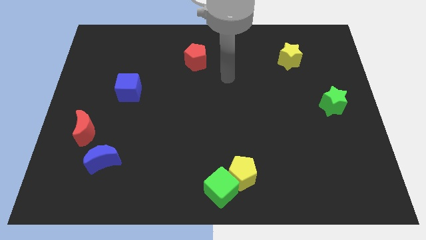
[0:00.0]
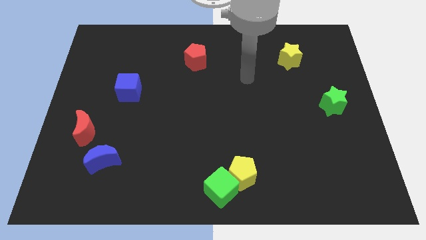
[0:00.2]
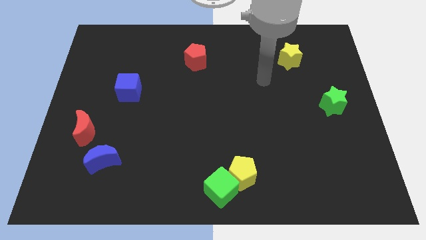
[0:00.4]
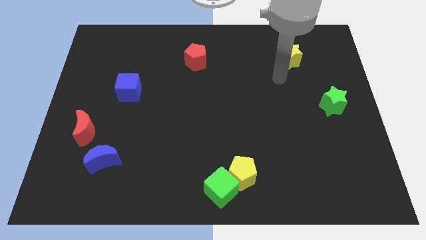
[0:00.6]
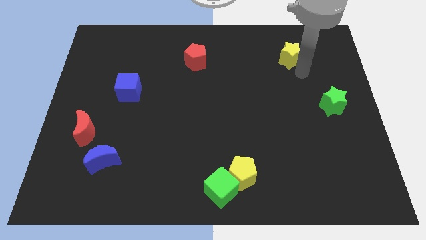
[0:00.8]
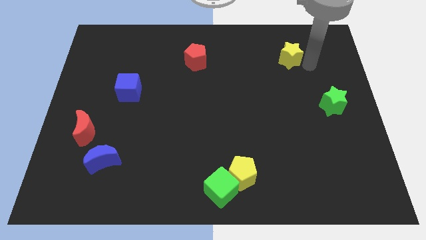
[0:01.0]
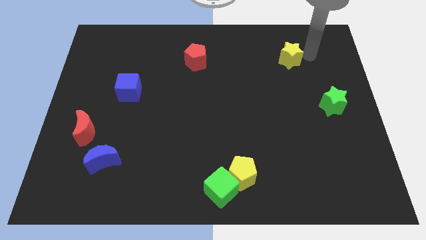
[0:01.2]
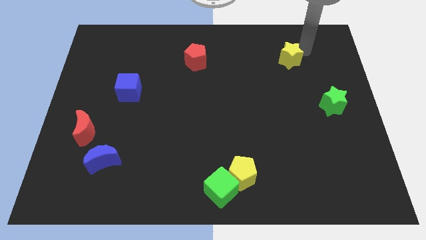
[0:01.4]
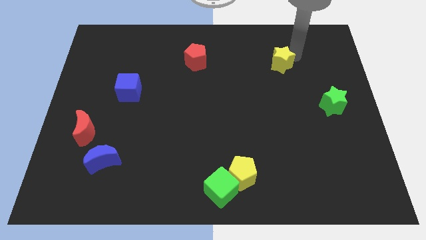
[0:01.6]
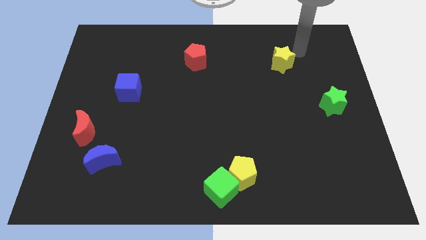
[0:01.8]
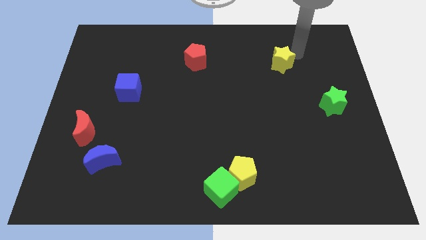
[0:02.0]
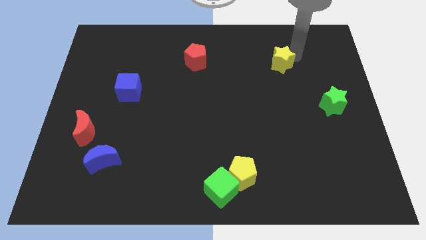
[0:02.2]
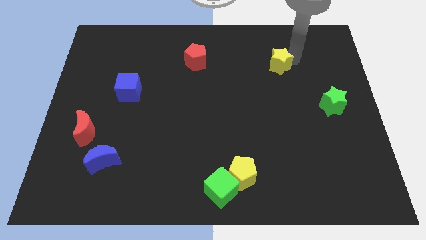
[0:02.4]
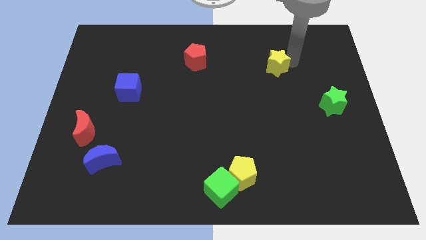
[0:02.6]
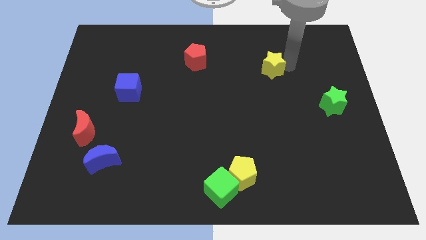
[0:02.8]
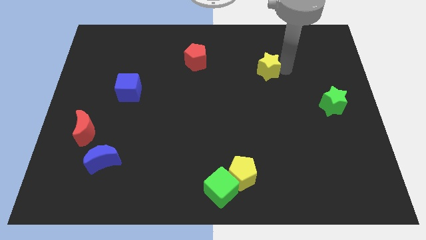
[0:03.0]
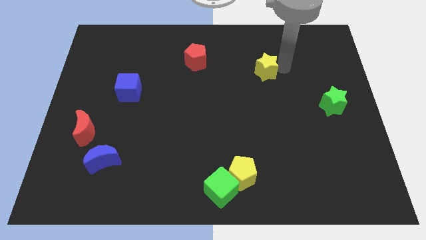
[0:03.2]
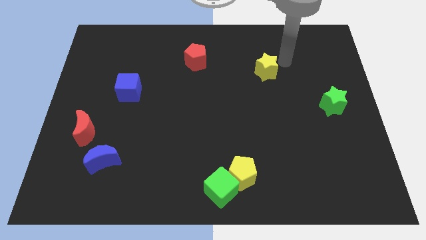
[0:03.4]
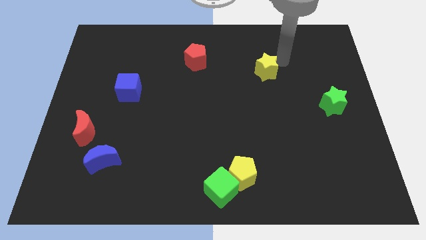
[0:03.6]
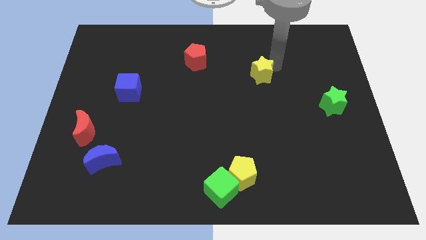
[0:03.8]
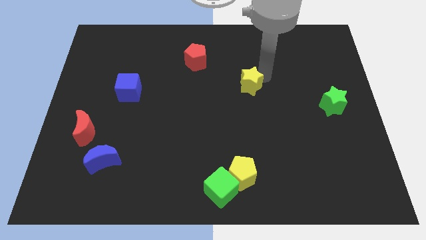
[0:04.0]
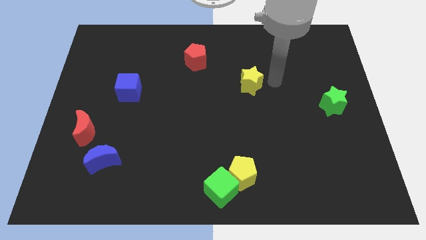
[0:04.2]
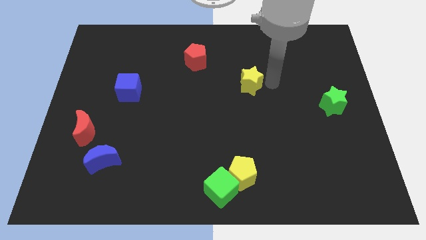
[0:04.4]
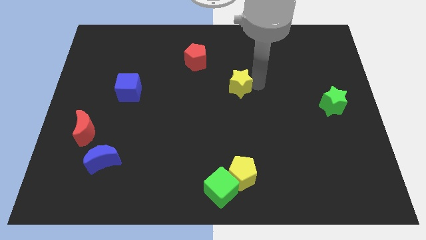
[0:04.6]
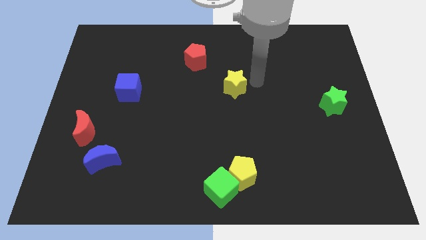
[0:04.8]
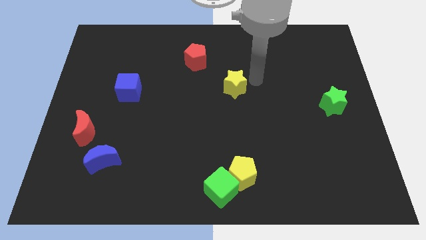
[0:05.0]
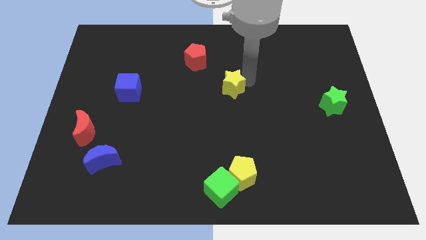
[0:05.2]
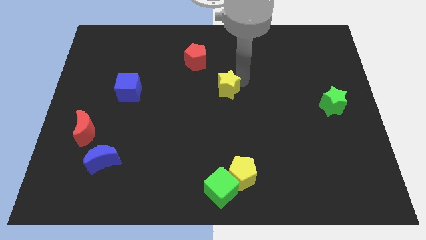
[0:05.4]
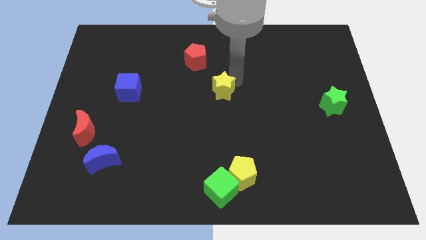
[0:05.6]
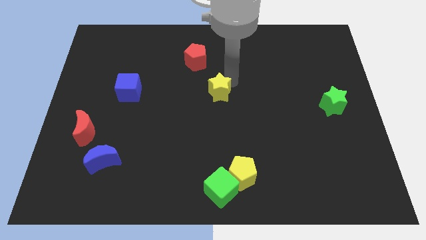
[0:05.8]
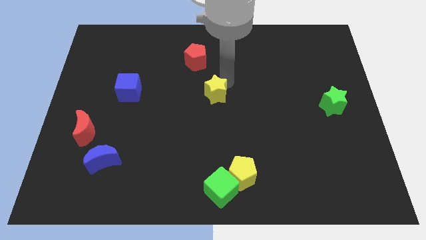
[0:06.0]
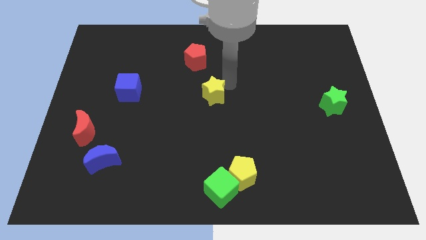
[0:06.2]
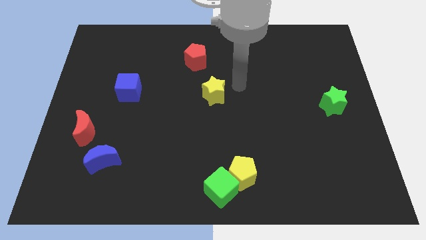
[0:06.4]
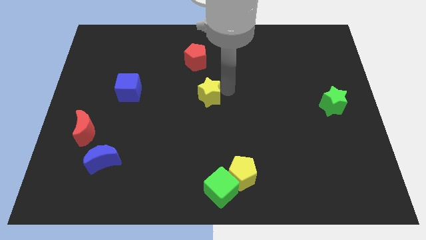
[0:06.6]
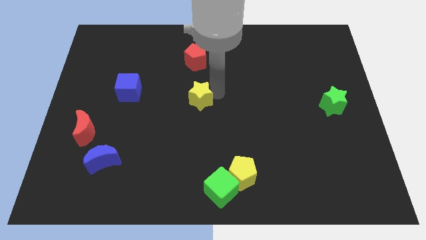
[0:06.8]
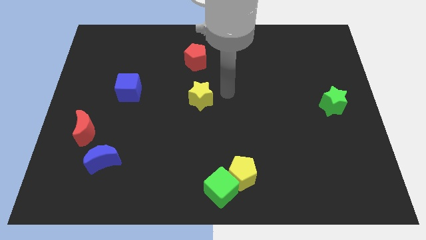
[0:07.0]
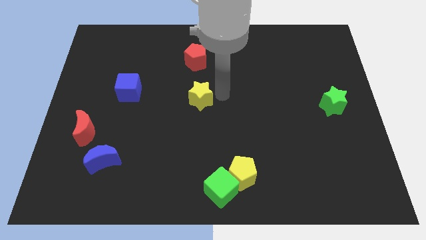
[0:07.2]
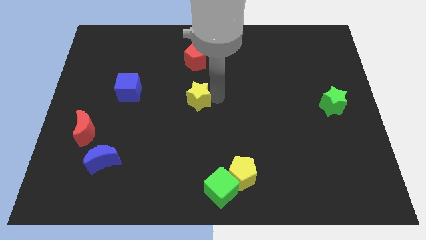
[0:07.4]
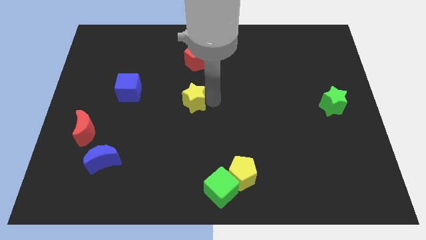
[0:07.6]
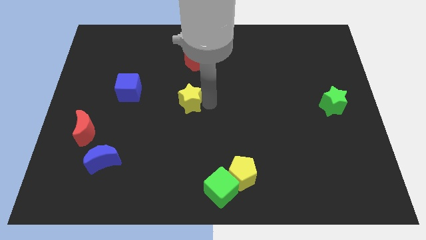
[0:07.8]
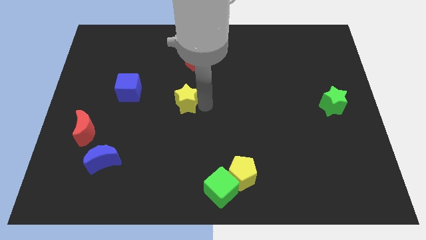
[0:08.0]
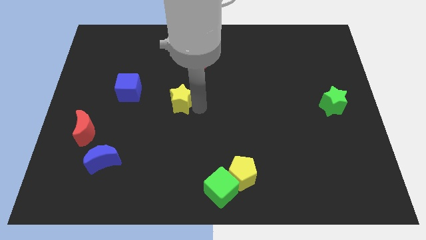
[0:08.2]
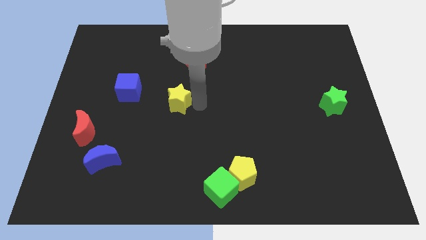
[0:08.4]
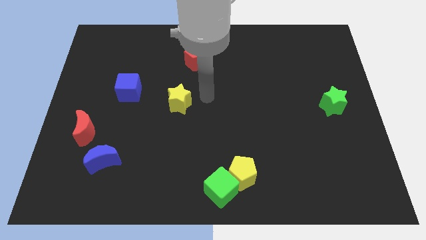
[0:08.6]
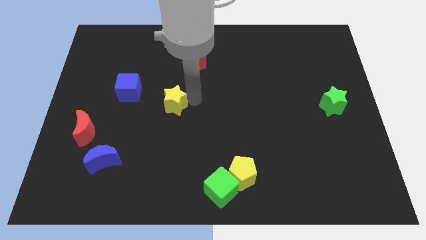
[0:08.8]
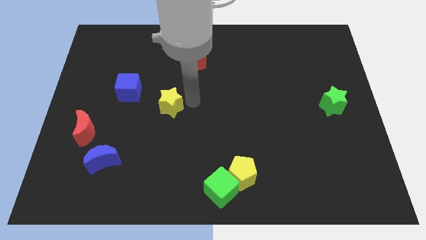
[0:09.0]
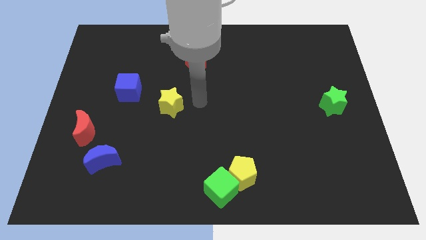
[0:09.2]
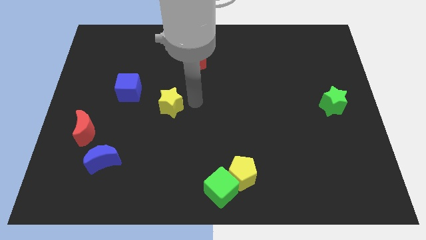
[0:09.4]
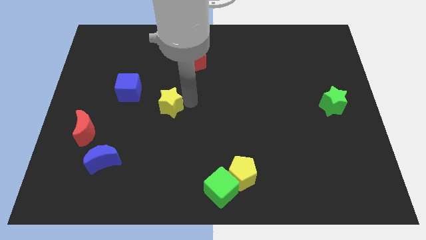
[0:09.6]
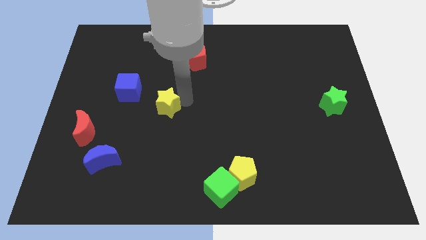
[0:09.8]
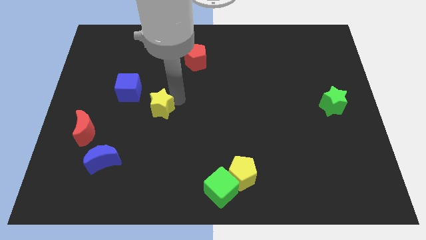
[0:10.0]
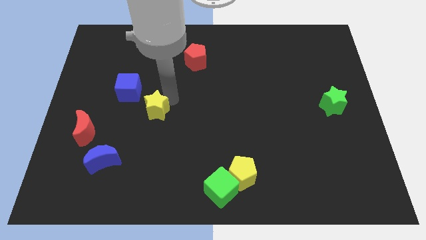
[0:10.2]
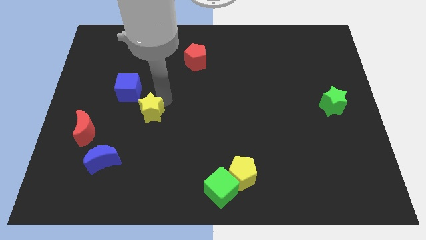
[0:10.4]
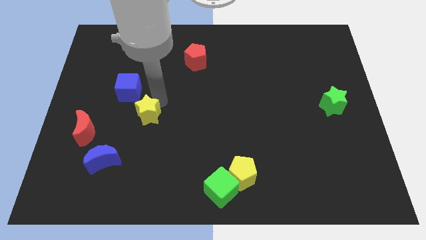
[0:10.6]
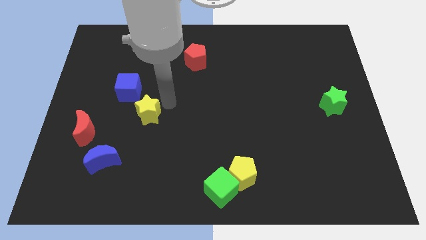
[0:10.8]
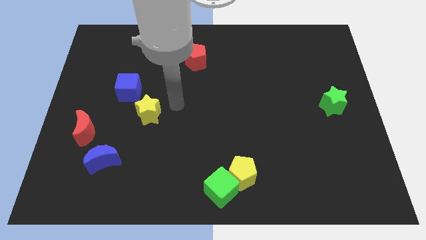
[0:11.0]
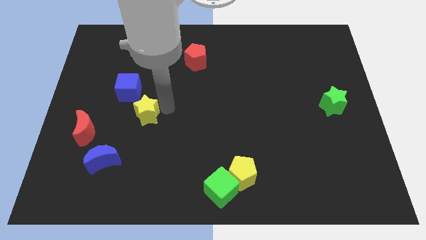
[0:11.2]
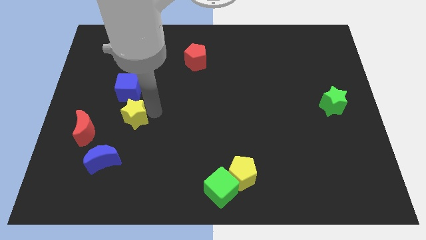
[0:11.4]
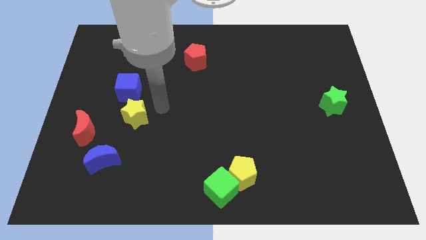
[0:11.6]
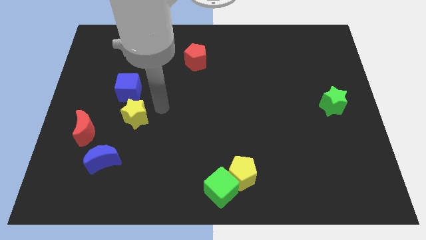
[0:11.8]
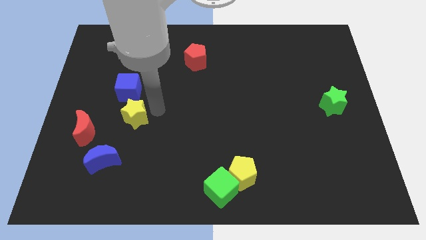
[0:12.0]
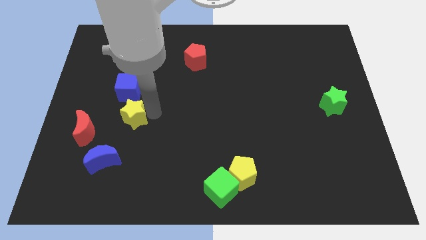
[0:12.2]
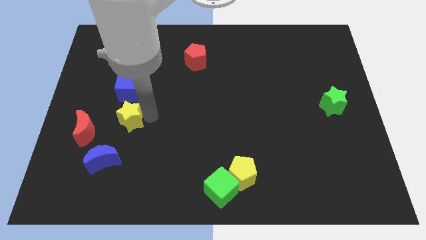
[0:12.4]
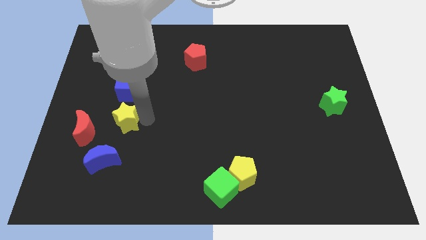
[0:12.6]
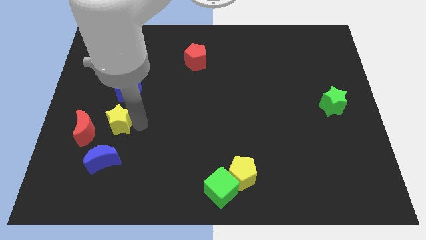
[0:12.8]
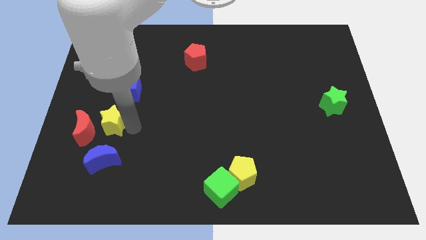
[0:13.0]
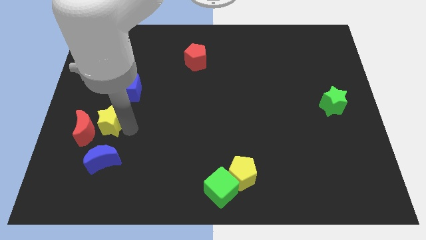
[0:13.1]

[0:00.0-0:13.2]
move the yellow star towards the red moon

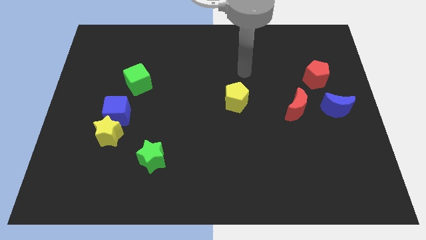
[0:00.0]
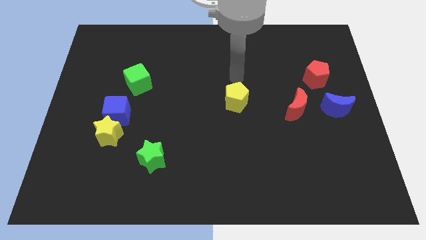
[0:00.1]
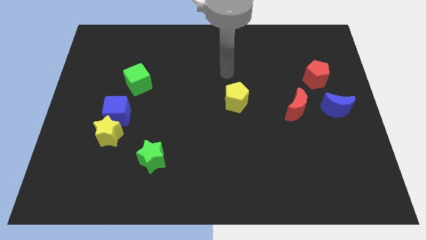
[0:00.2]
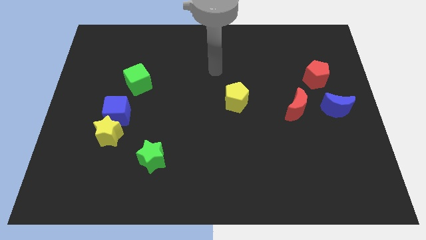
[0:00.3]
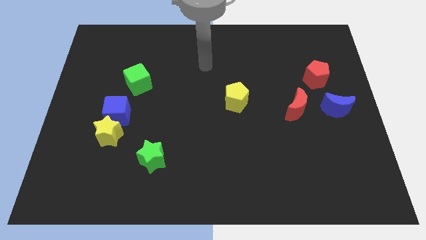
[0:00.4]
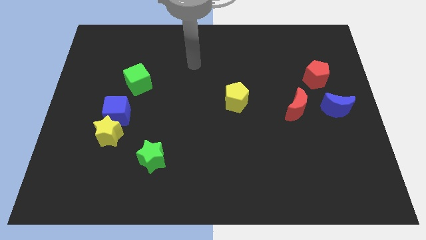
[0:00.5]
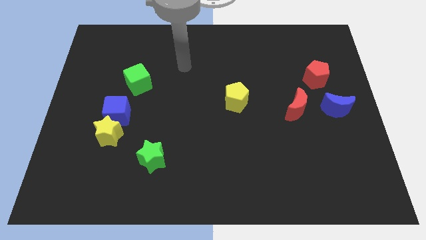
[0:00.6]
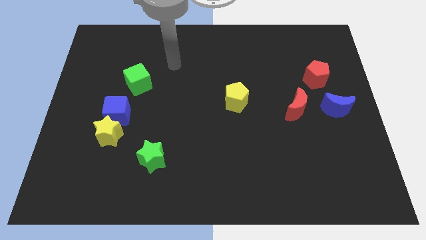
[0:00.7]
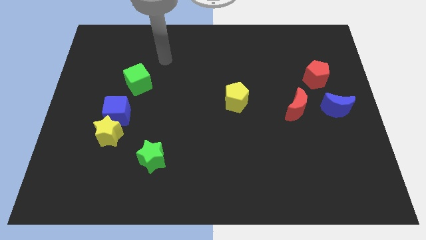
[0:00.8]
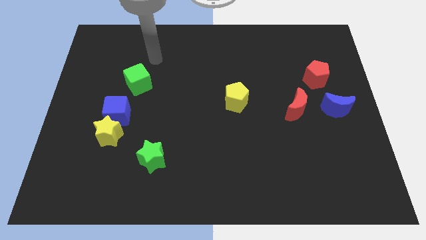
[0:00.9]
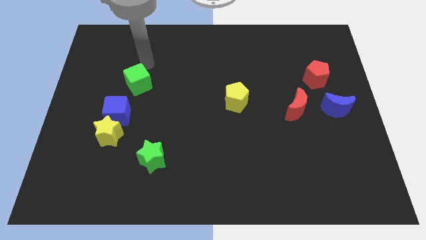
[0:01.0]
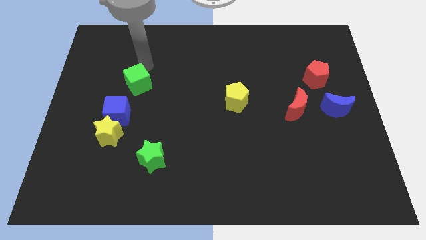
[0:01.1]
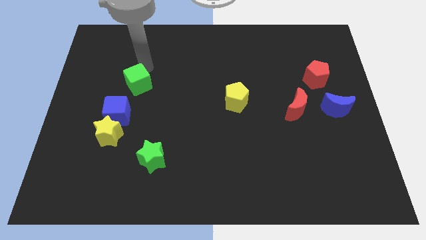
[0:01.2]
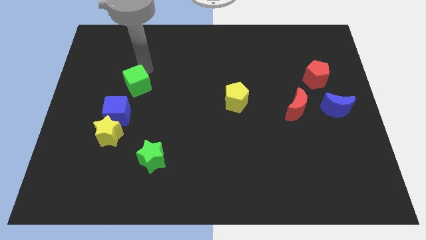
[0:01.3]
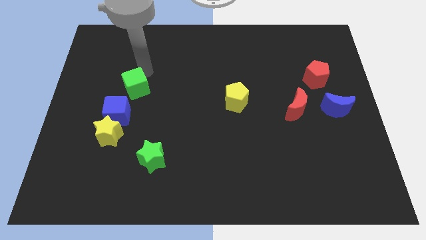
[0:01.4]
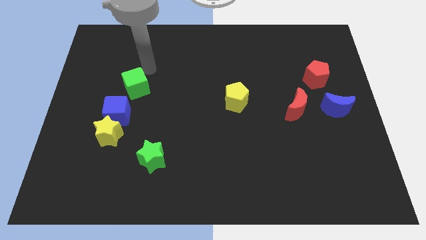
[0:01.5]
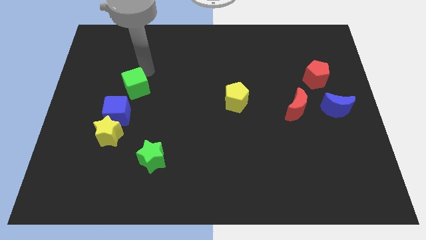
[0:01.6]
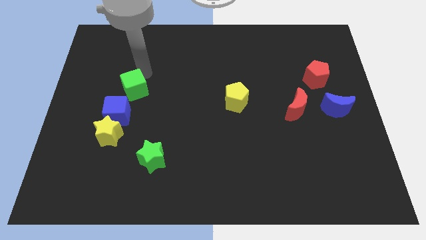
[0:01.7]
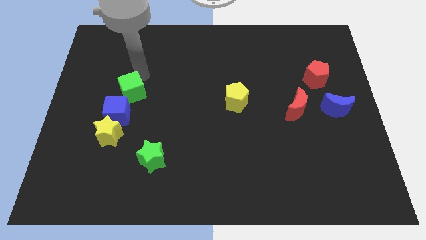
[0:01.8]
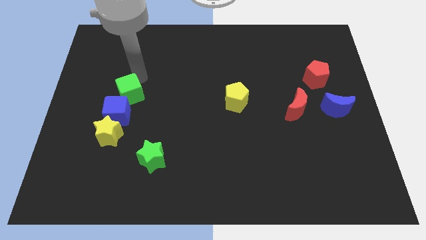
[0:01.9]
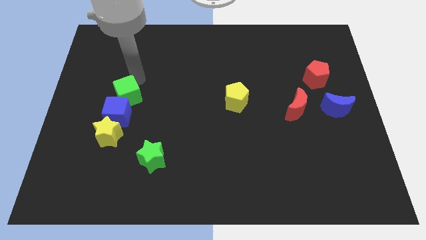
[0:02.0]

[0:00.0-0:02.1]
push the green cube next to the blue cube
